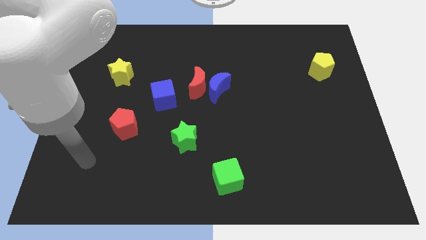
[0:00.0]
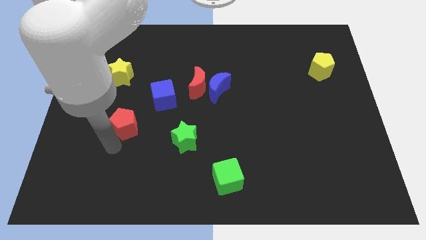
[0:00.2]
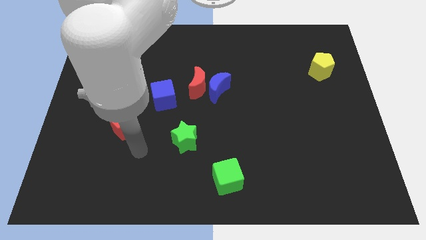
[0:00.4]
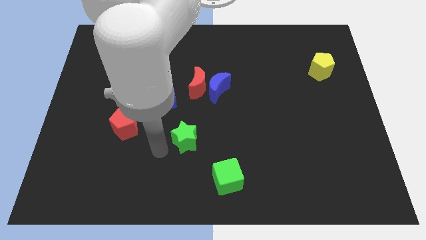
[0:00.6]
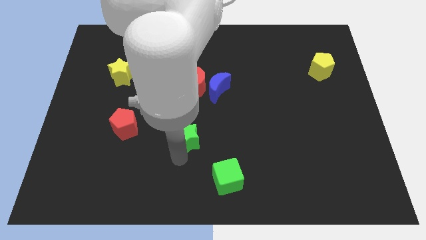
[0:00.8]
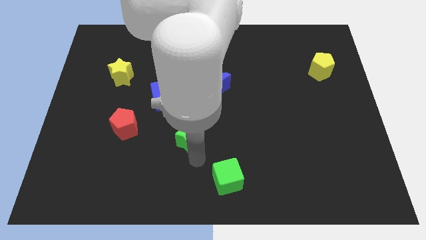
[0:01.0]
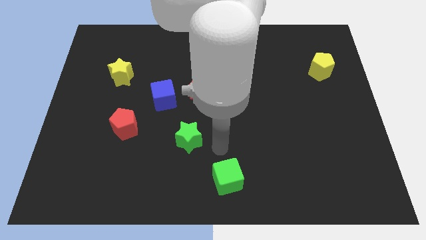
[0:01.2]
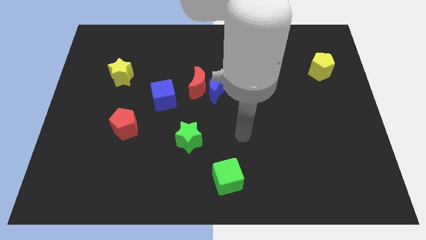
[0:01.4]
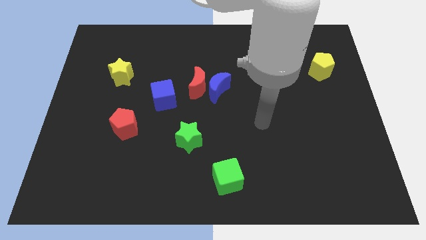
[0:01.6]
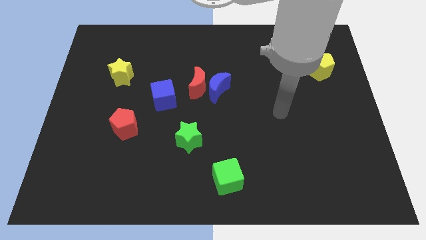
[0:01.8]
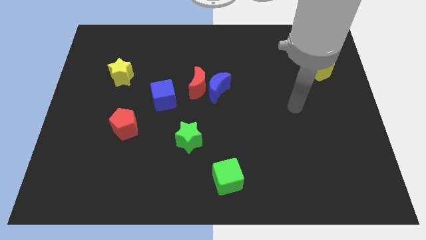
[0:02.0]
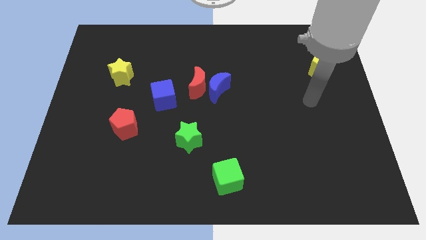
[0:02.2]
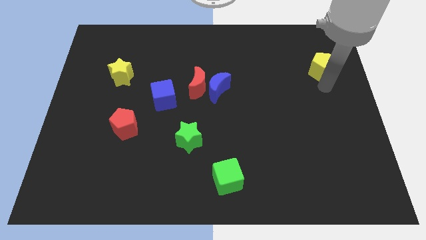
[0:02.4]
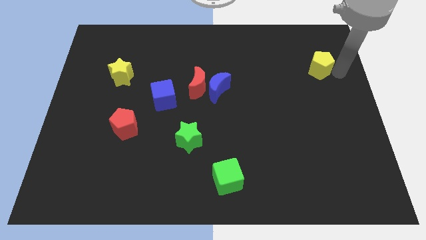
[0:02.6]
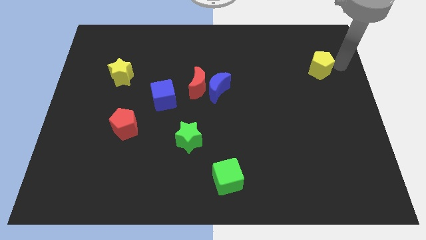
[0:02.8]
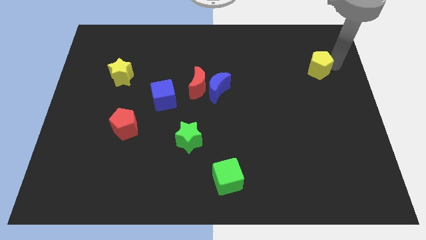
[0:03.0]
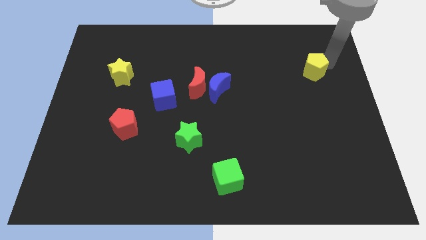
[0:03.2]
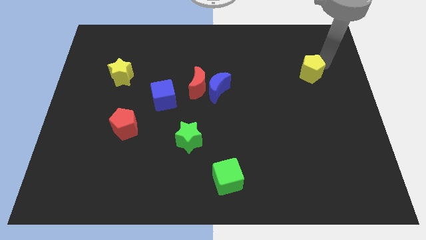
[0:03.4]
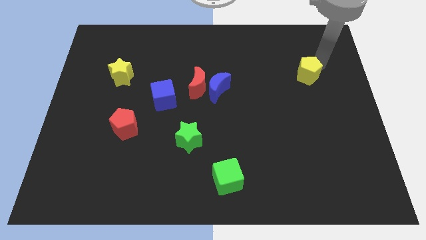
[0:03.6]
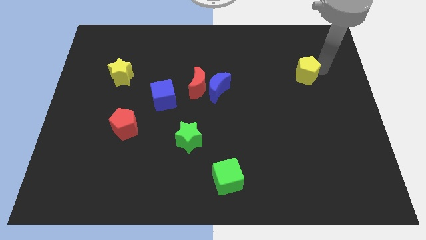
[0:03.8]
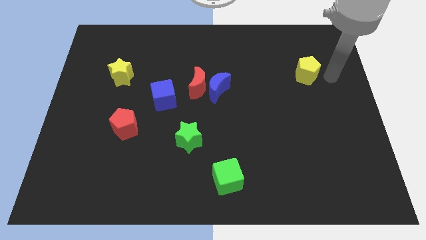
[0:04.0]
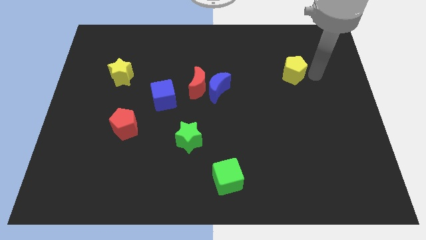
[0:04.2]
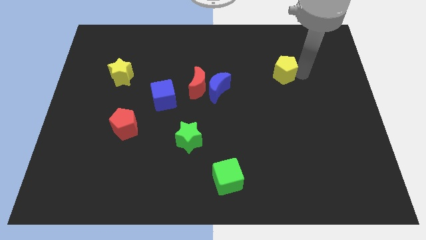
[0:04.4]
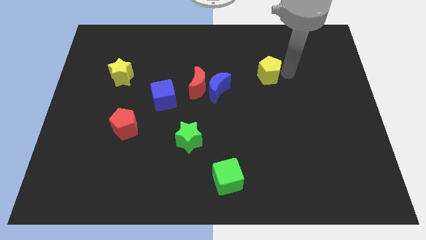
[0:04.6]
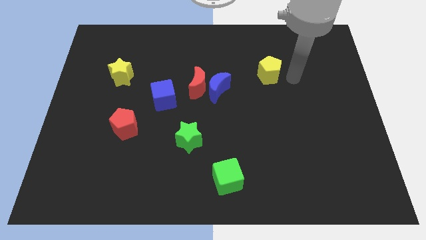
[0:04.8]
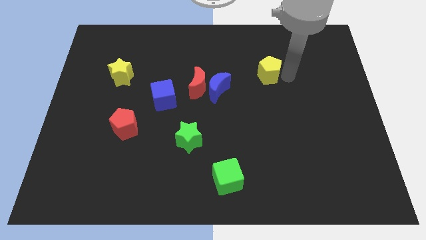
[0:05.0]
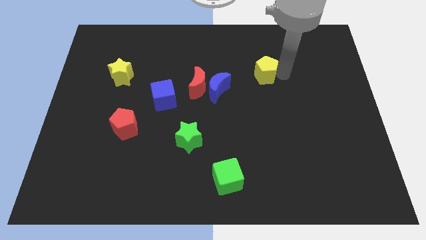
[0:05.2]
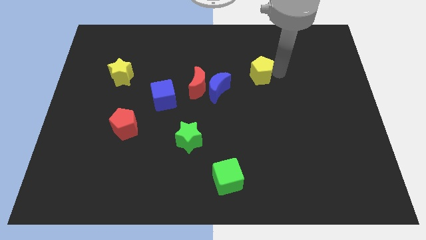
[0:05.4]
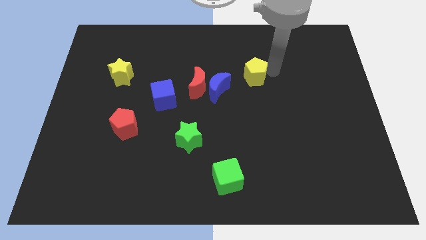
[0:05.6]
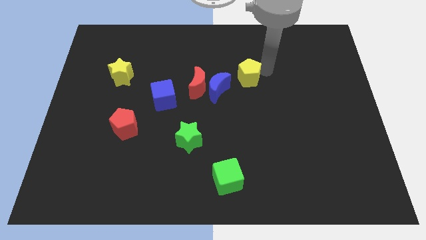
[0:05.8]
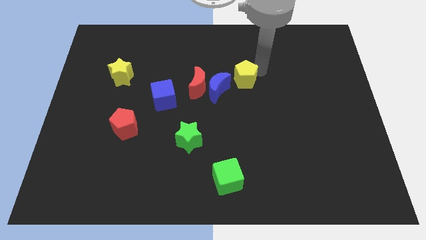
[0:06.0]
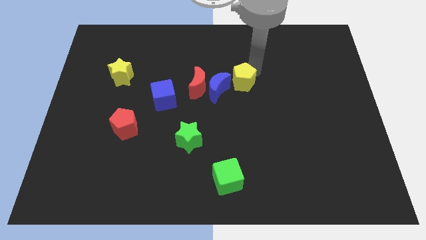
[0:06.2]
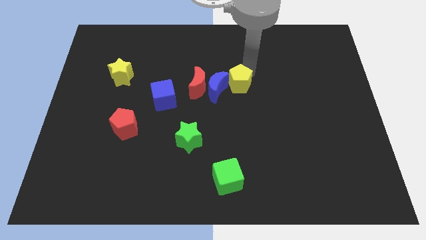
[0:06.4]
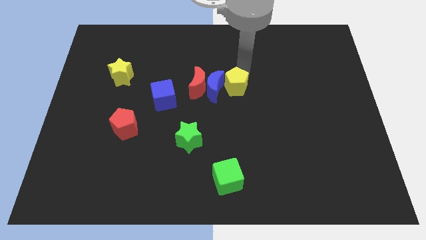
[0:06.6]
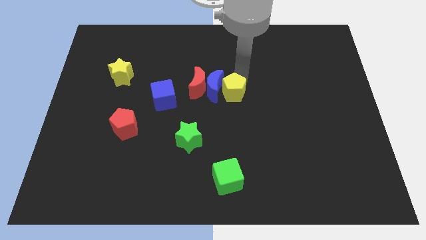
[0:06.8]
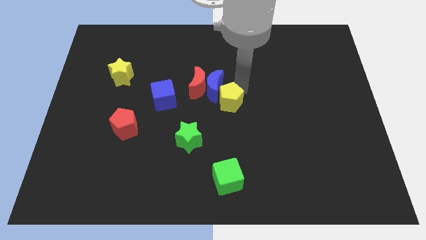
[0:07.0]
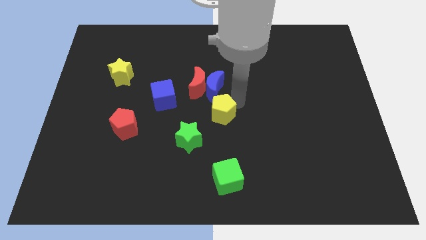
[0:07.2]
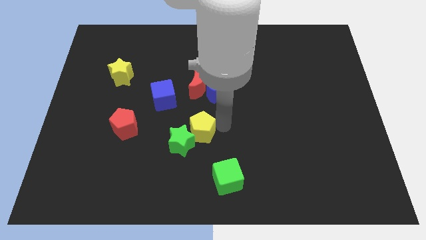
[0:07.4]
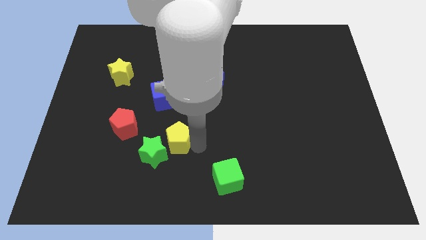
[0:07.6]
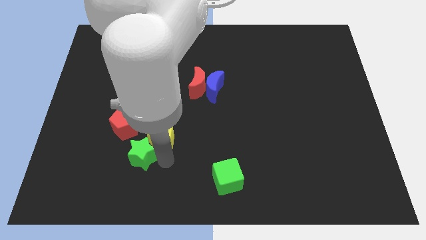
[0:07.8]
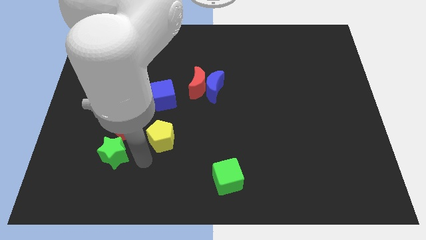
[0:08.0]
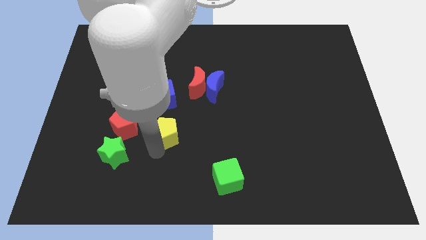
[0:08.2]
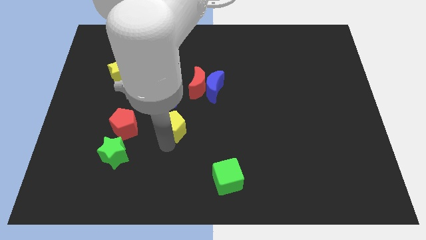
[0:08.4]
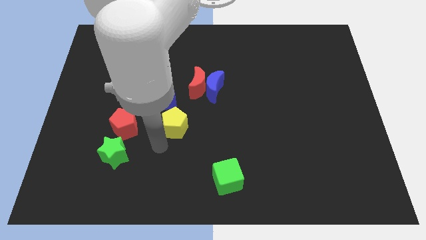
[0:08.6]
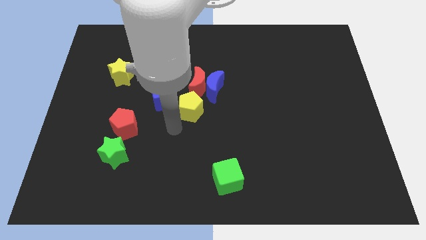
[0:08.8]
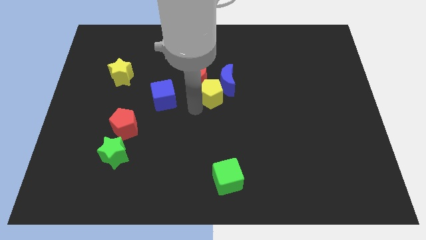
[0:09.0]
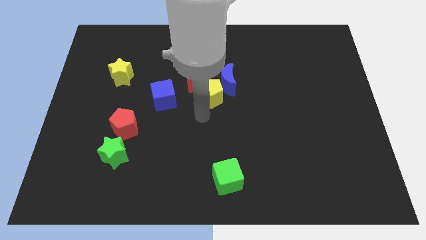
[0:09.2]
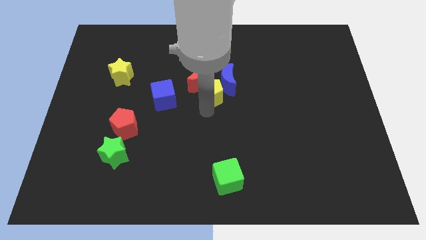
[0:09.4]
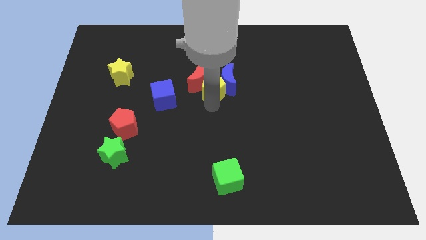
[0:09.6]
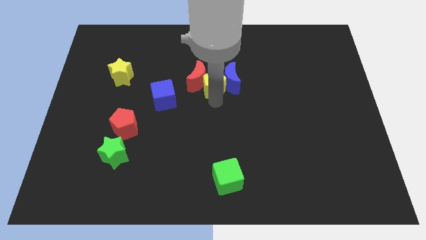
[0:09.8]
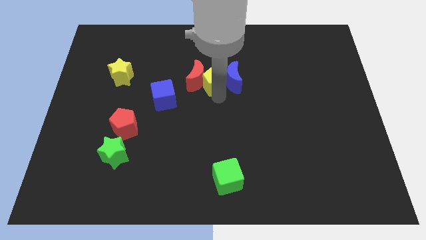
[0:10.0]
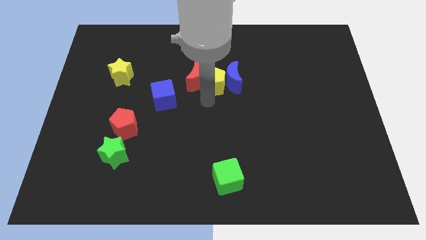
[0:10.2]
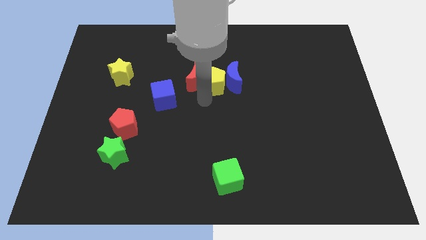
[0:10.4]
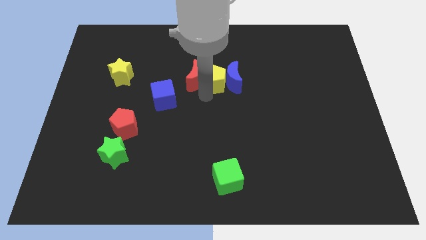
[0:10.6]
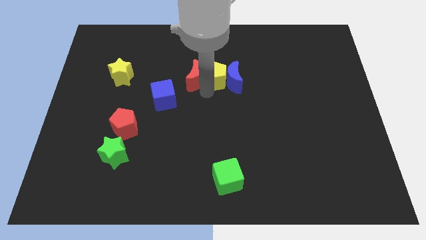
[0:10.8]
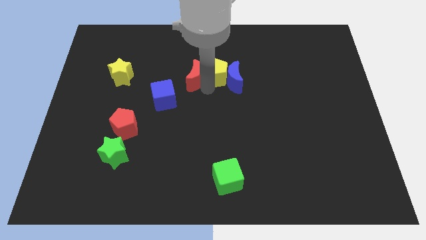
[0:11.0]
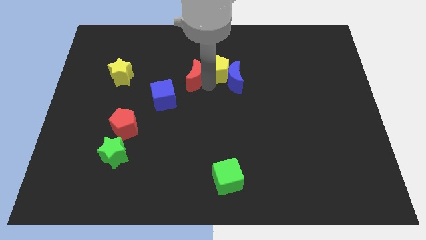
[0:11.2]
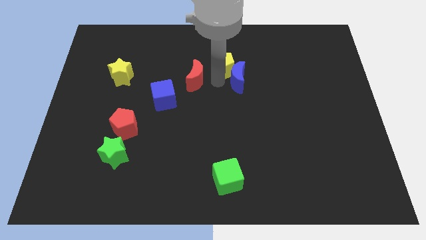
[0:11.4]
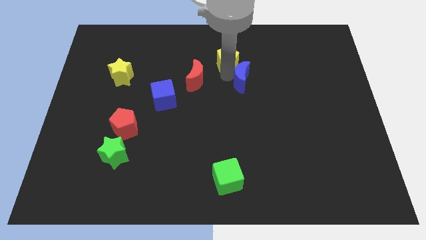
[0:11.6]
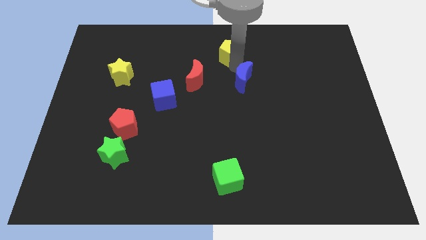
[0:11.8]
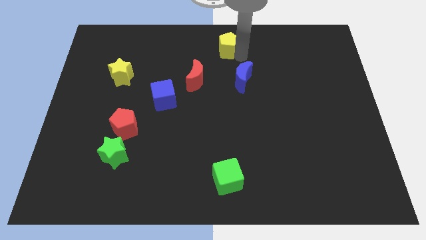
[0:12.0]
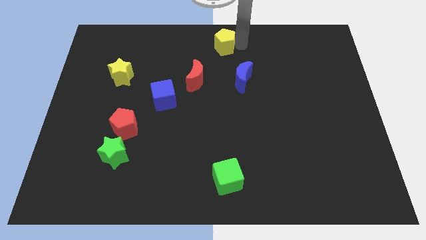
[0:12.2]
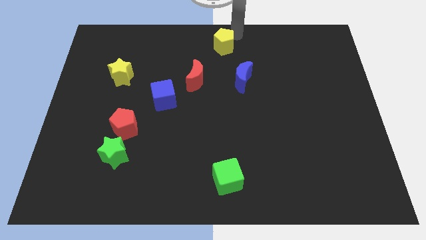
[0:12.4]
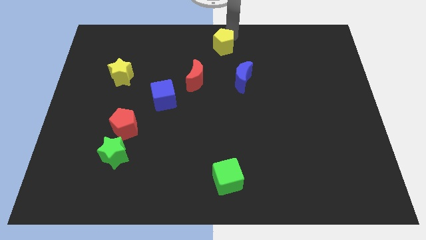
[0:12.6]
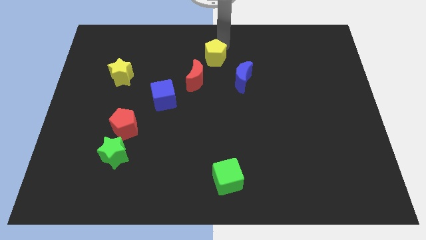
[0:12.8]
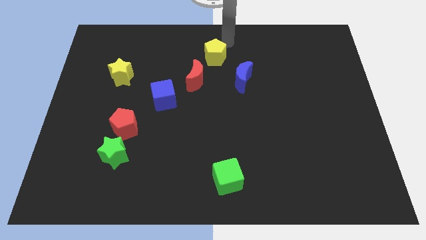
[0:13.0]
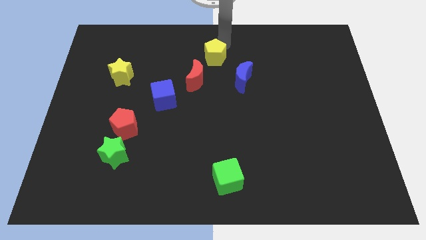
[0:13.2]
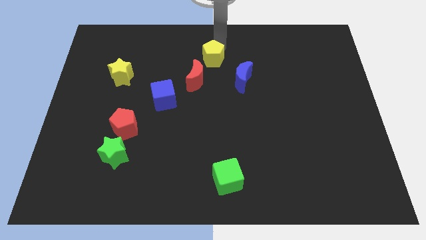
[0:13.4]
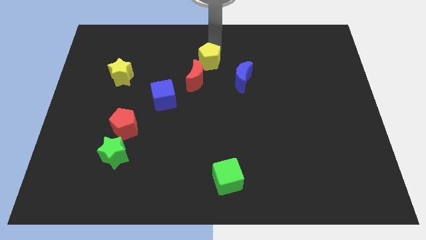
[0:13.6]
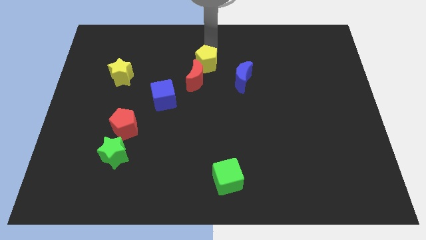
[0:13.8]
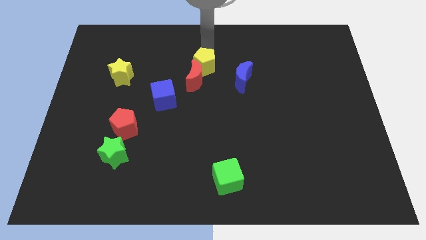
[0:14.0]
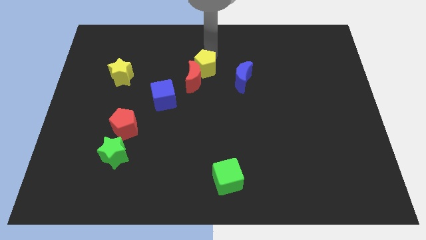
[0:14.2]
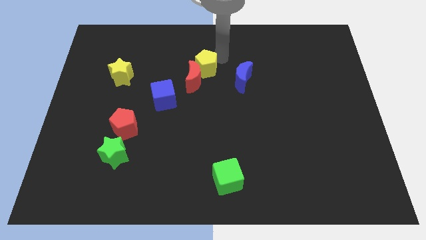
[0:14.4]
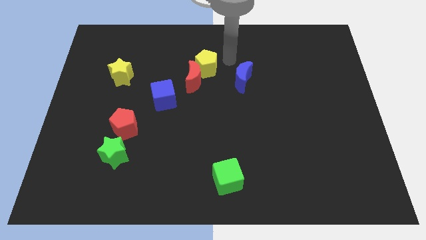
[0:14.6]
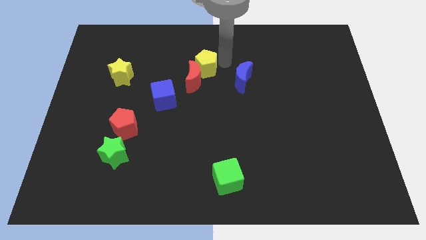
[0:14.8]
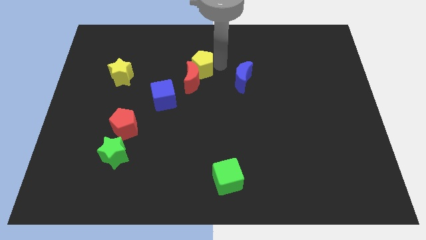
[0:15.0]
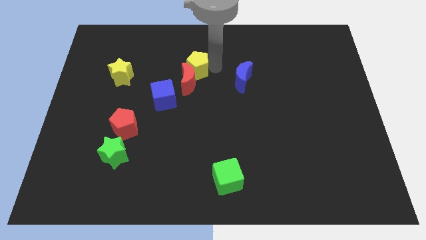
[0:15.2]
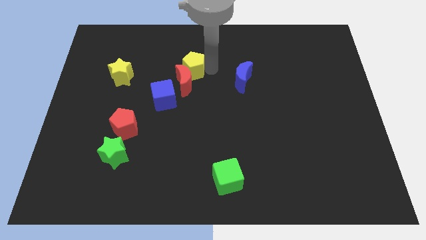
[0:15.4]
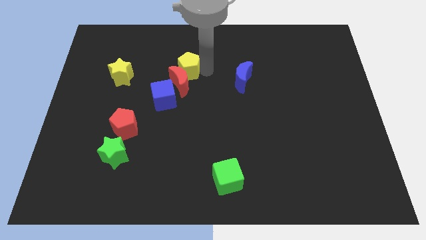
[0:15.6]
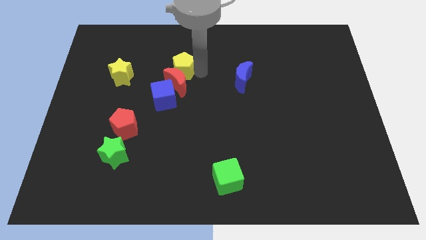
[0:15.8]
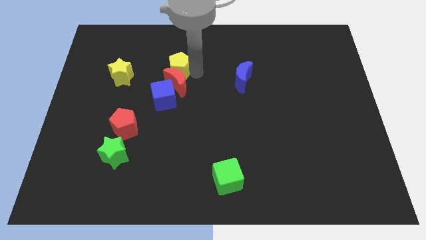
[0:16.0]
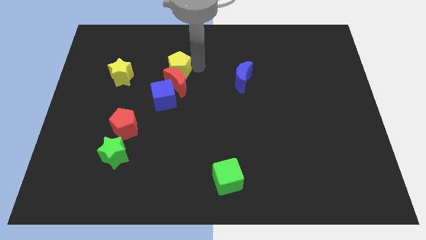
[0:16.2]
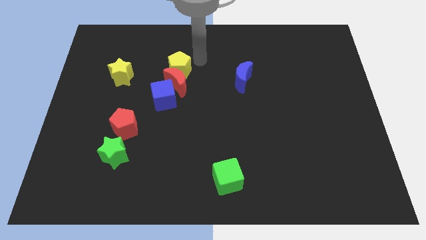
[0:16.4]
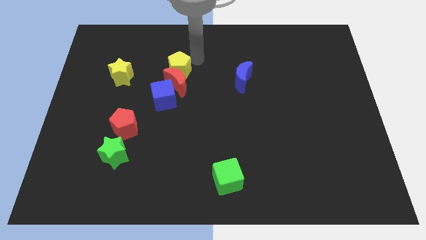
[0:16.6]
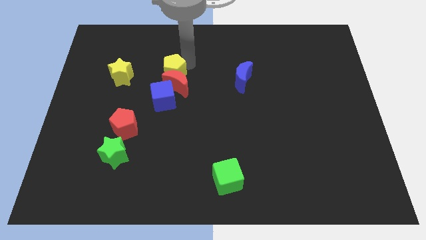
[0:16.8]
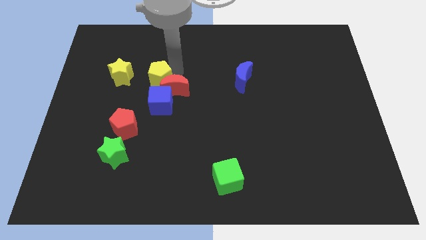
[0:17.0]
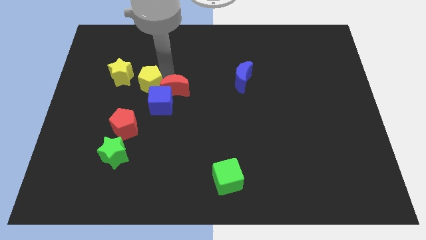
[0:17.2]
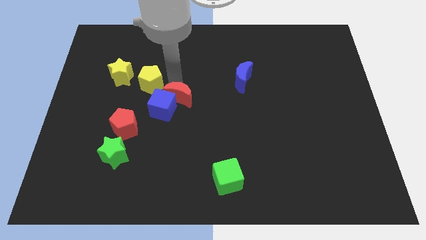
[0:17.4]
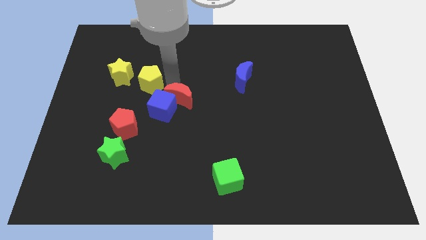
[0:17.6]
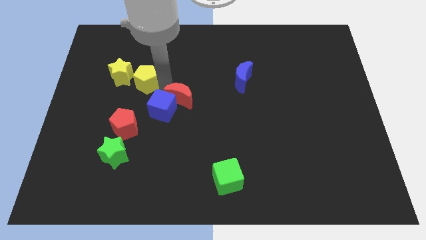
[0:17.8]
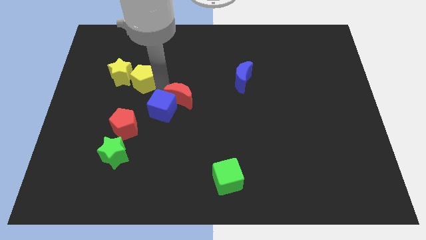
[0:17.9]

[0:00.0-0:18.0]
slide the yellow pentagon to the yellow star
